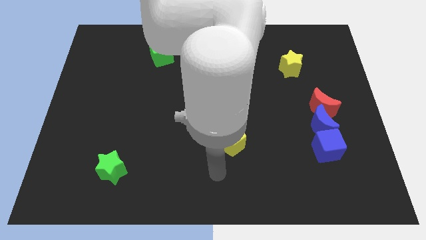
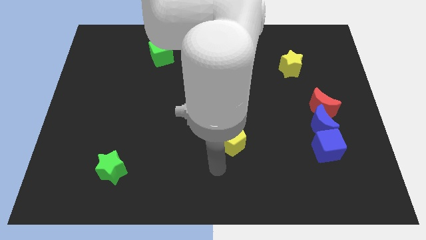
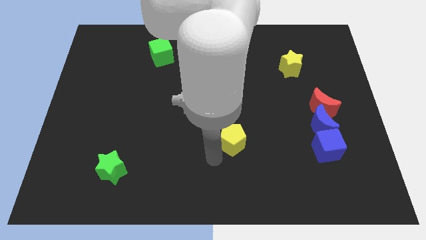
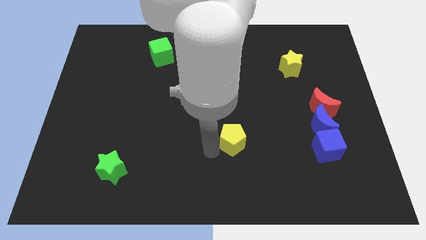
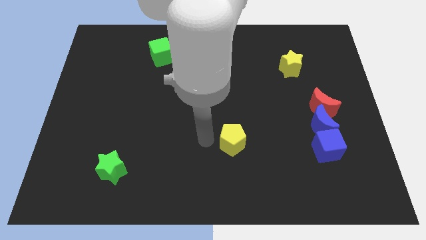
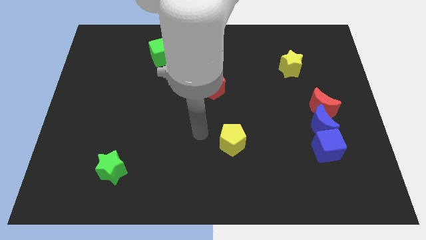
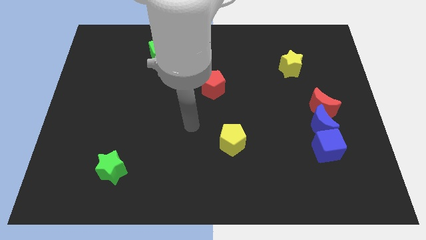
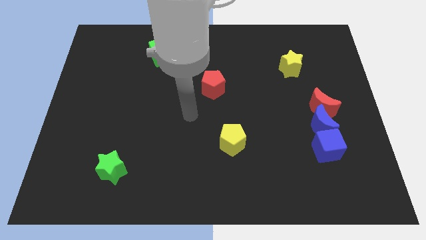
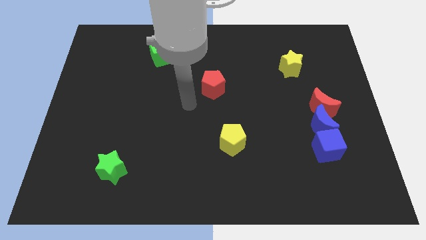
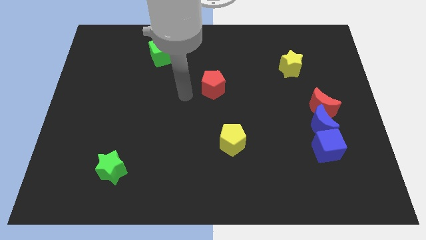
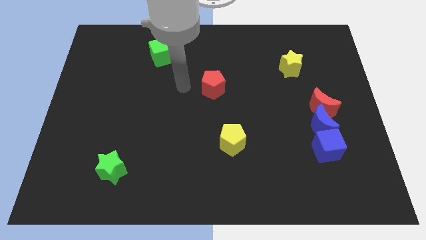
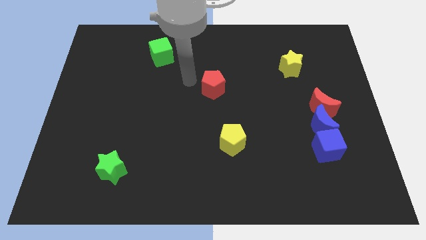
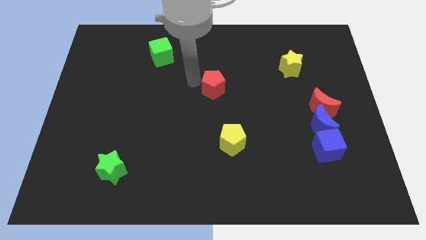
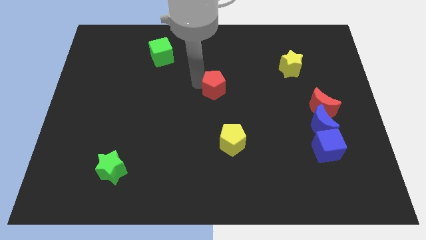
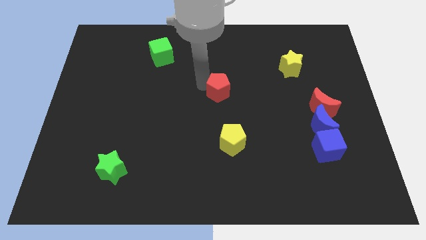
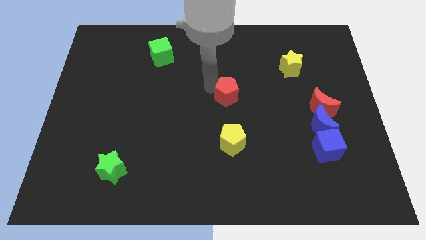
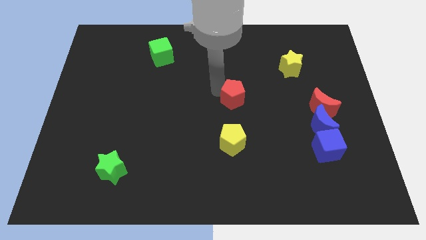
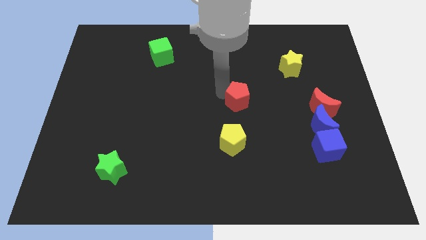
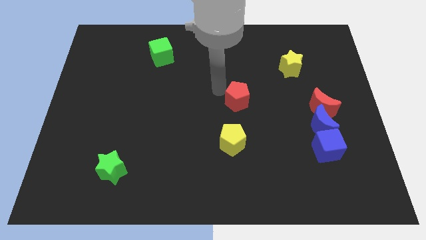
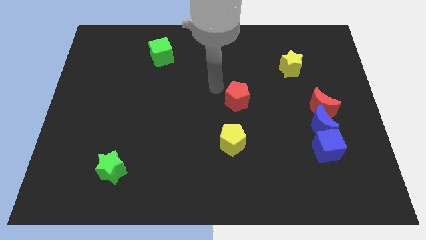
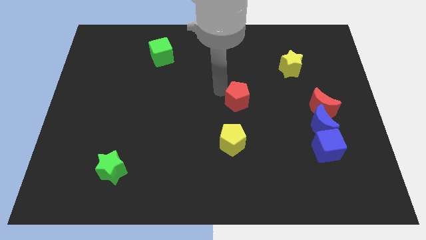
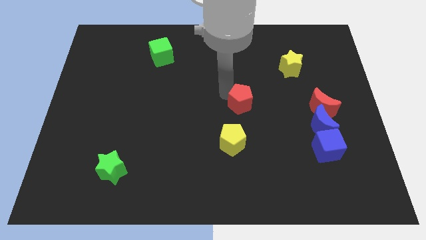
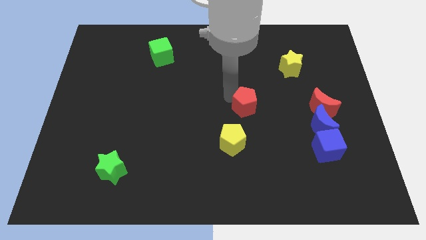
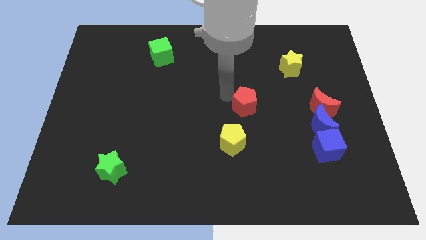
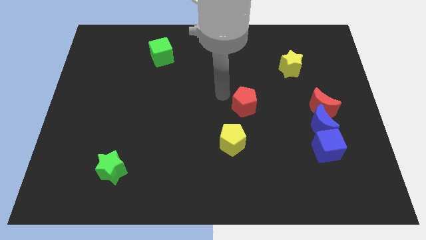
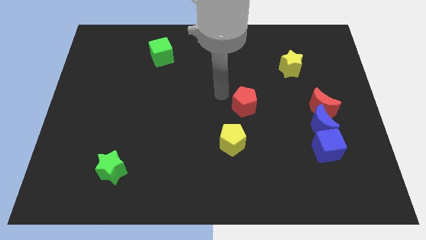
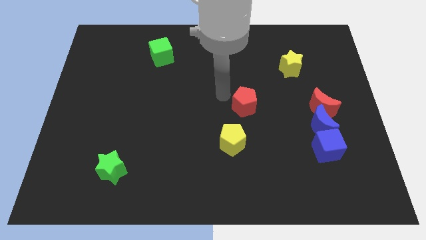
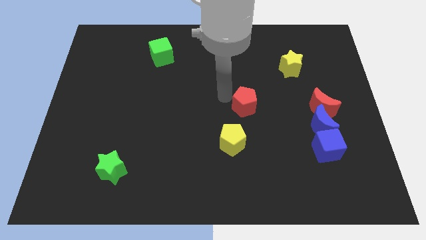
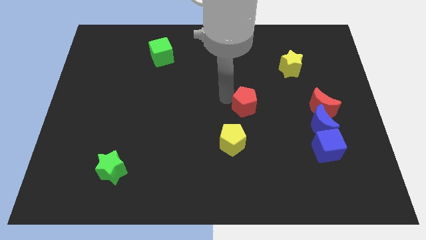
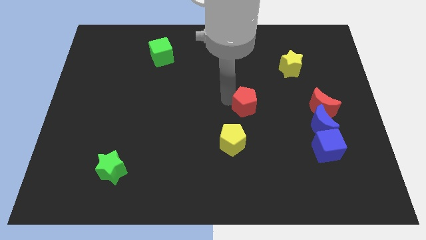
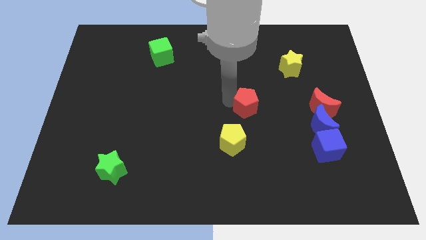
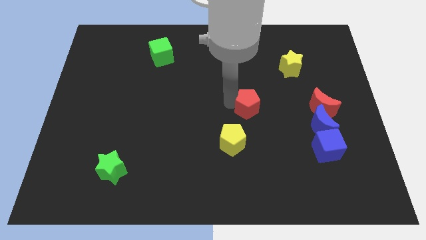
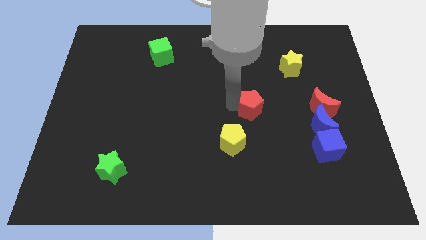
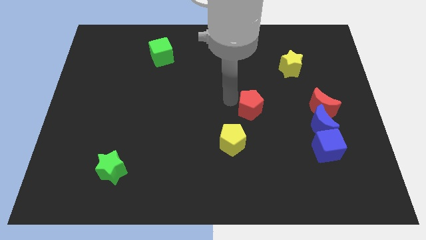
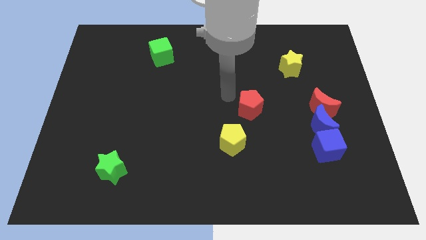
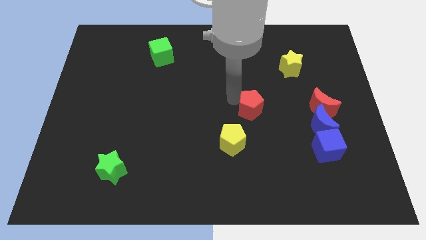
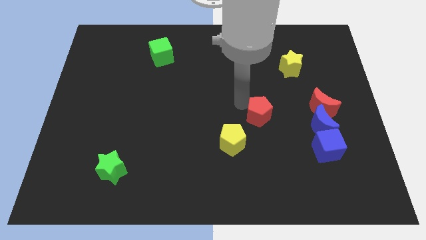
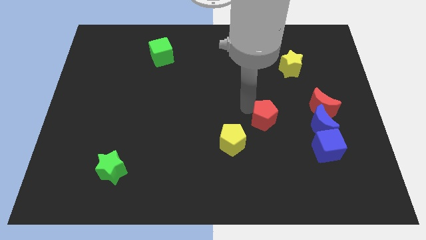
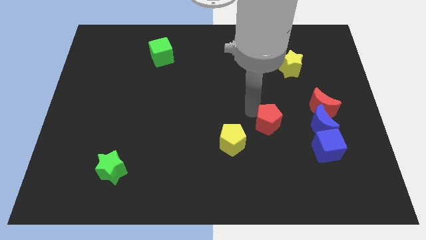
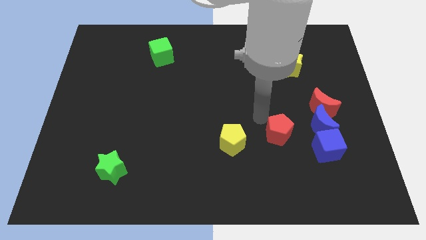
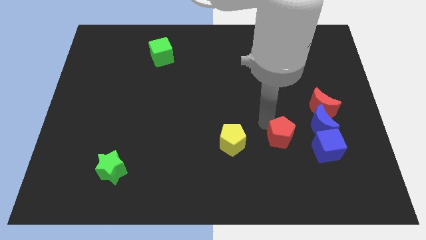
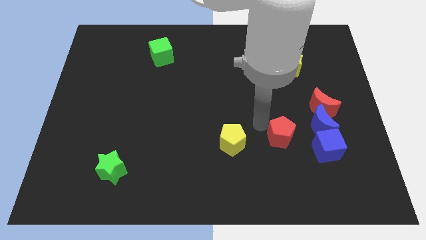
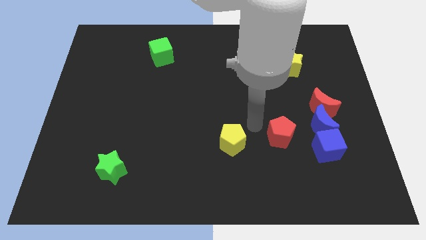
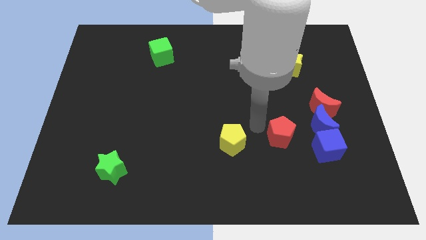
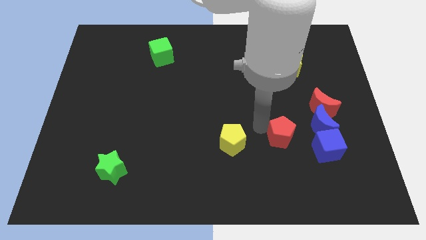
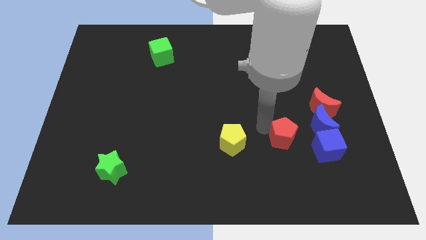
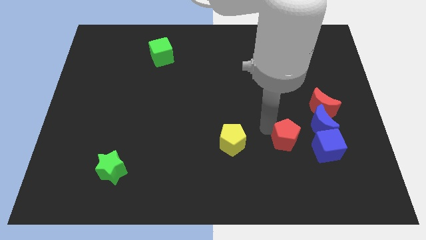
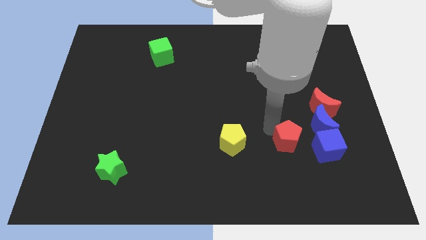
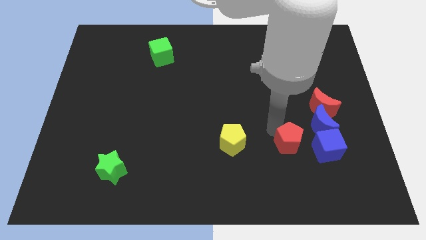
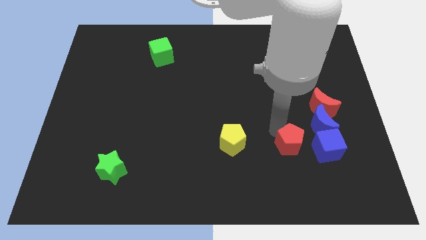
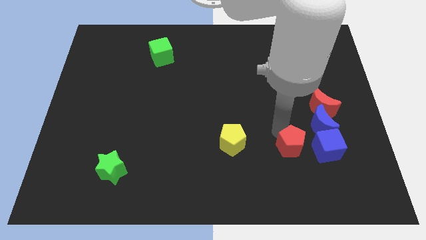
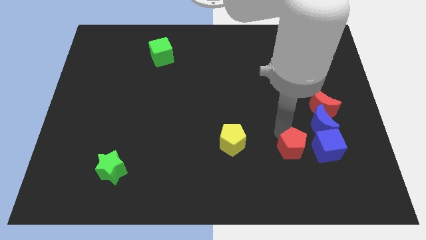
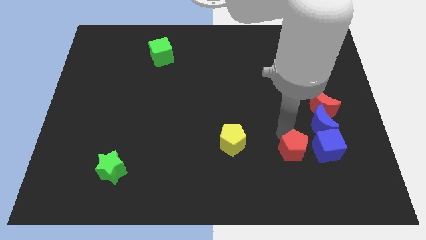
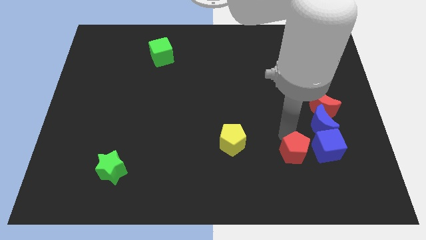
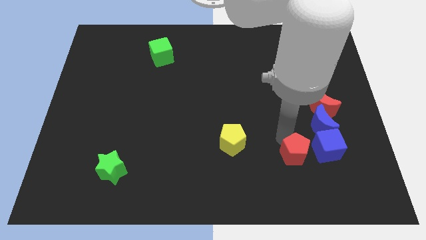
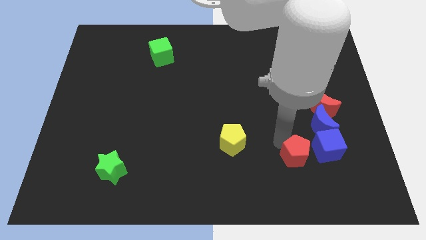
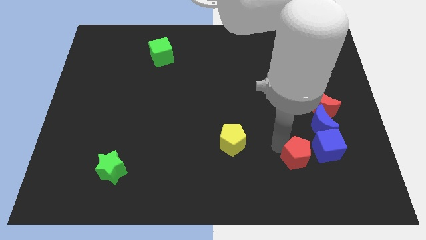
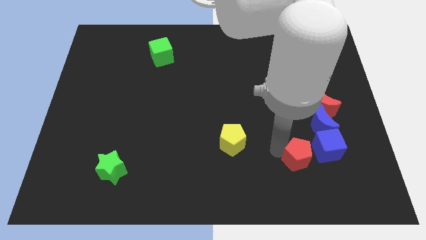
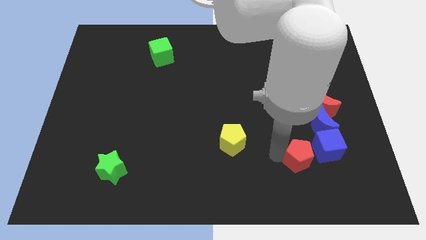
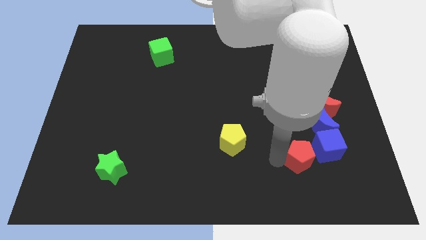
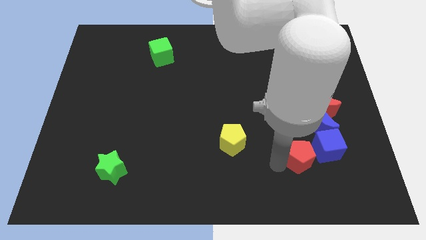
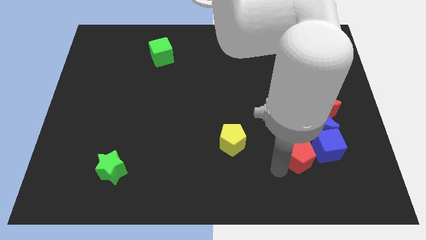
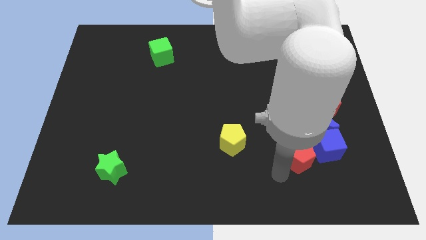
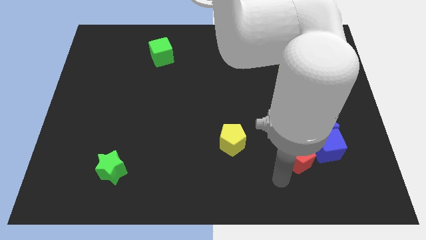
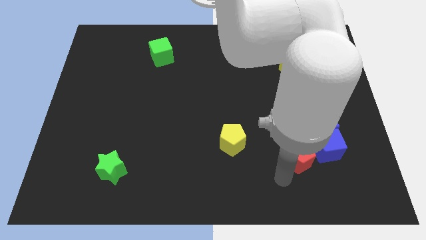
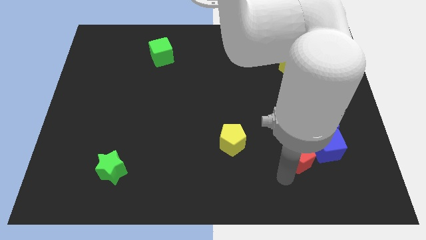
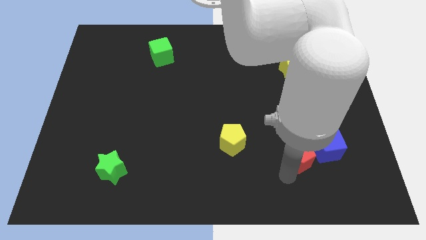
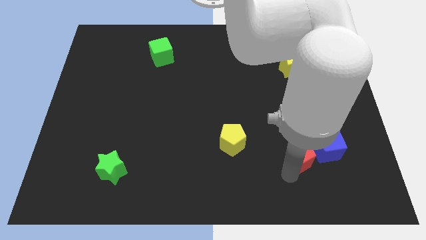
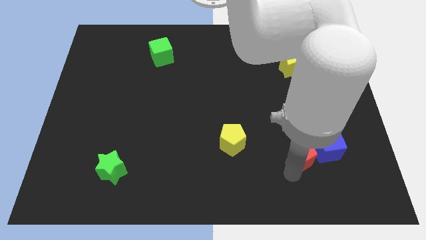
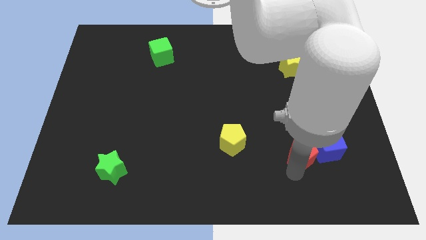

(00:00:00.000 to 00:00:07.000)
put the red pentagon next to the blue cube
